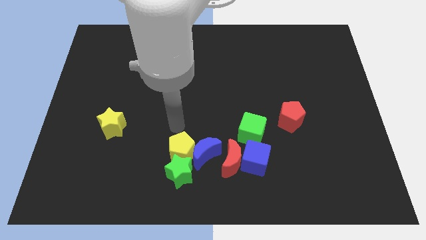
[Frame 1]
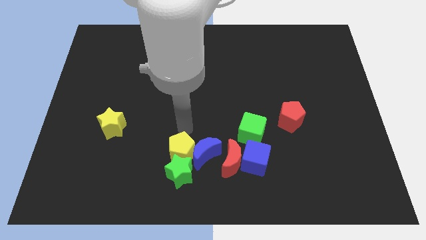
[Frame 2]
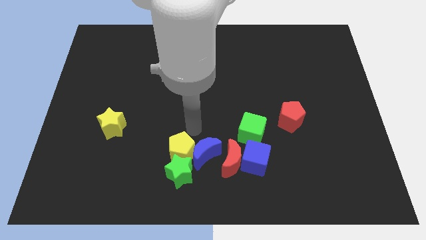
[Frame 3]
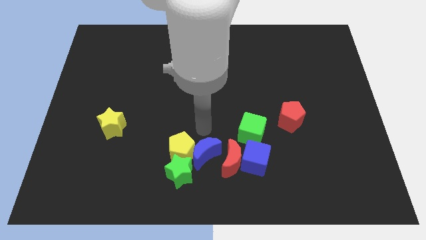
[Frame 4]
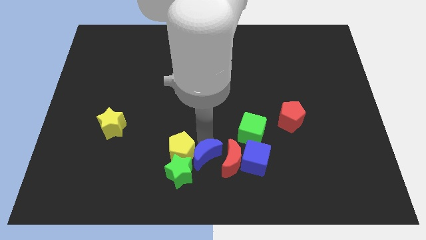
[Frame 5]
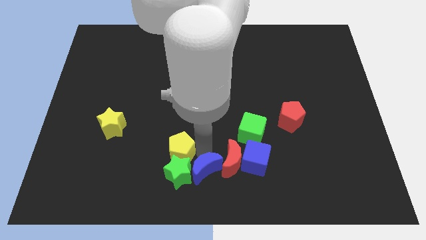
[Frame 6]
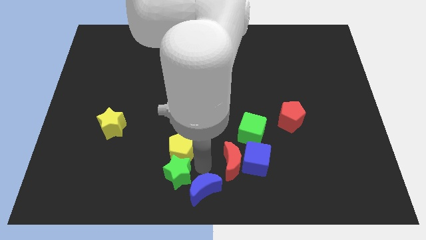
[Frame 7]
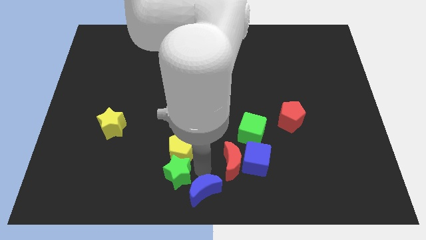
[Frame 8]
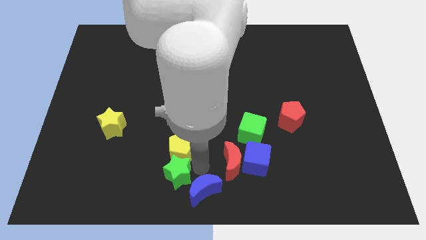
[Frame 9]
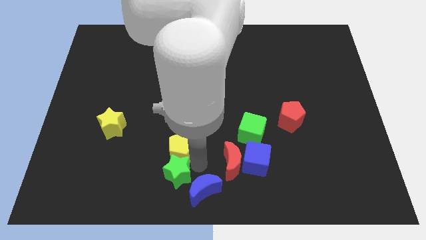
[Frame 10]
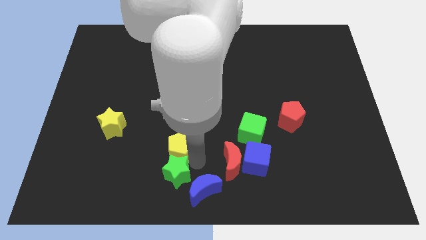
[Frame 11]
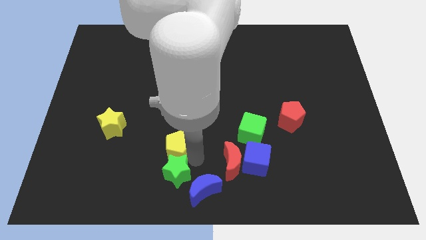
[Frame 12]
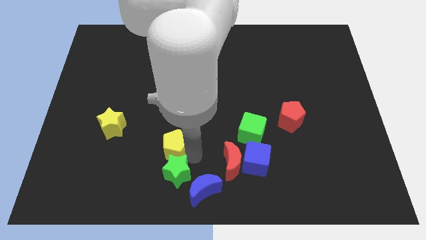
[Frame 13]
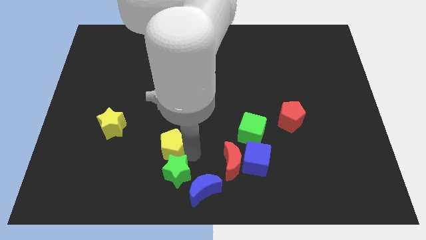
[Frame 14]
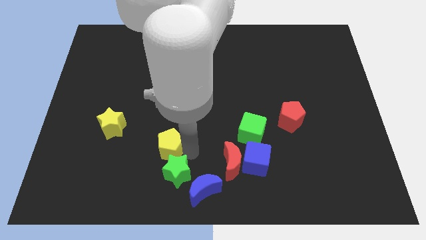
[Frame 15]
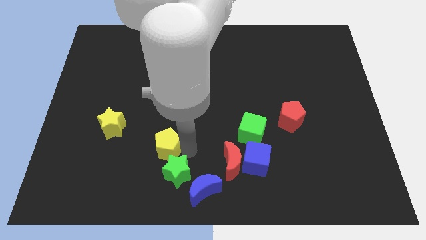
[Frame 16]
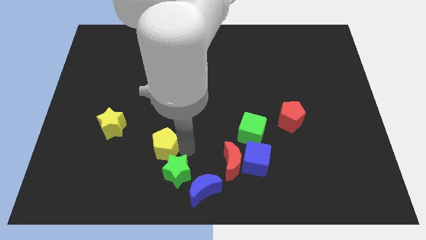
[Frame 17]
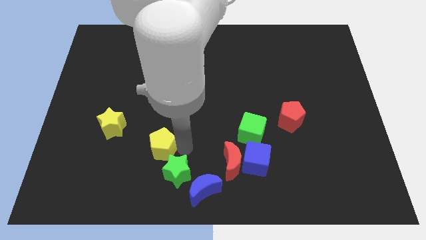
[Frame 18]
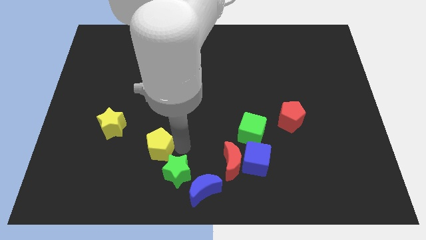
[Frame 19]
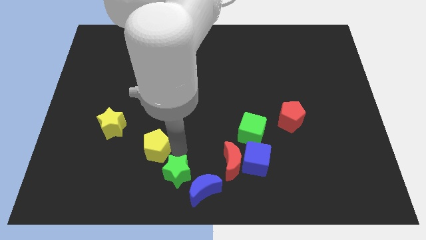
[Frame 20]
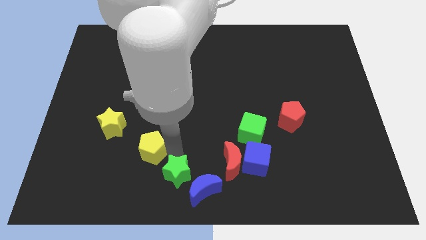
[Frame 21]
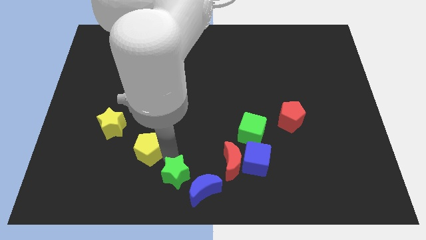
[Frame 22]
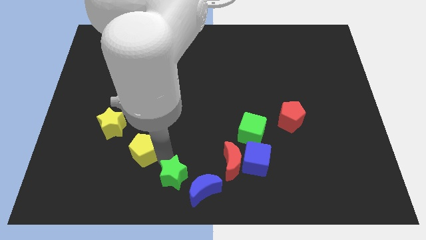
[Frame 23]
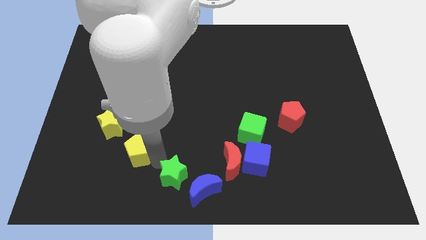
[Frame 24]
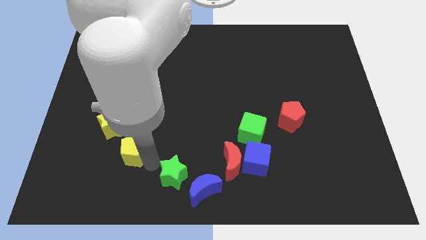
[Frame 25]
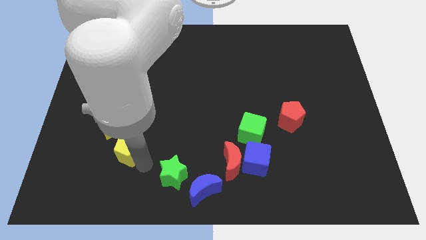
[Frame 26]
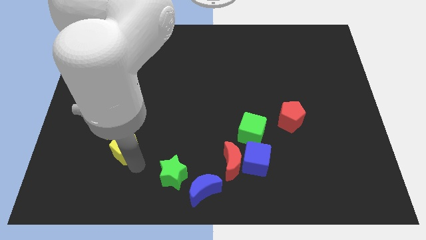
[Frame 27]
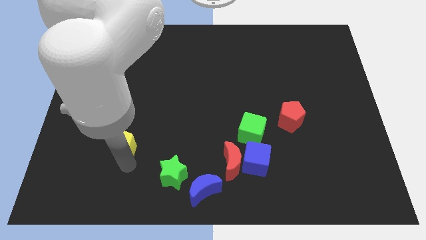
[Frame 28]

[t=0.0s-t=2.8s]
slide the yellow pentagon upwards and left slightly

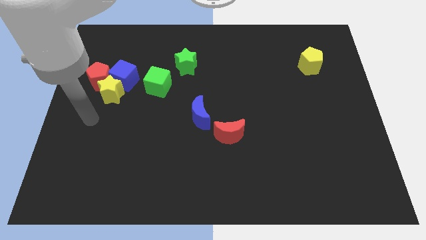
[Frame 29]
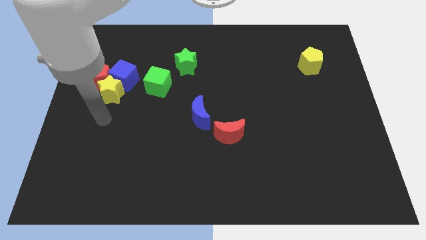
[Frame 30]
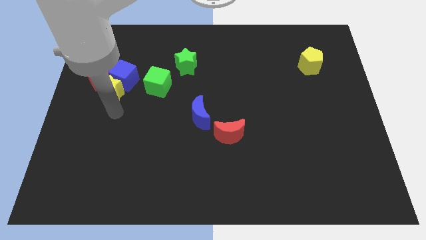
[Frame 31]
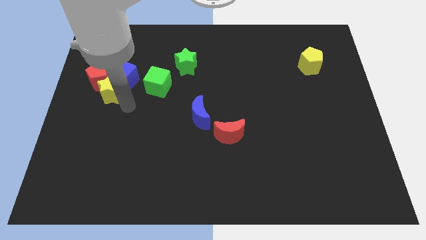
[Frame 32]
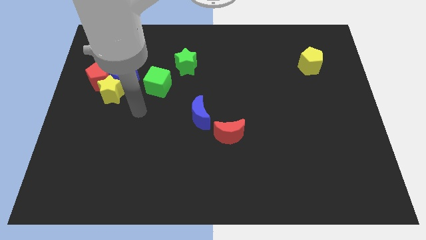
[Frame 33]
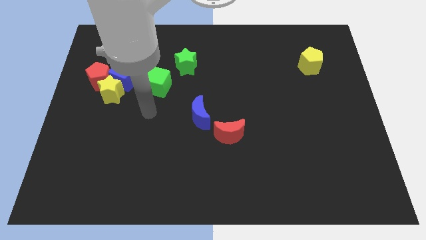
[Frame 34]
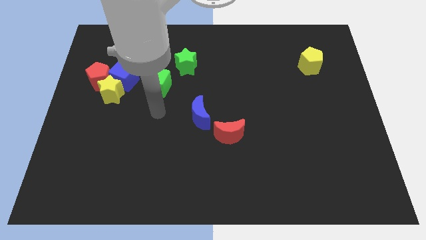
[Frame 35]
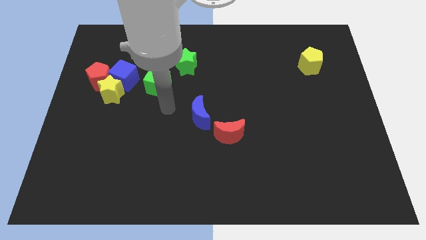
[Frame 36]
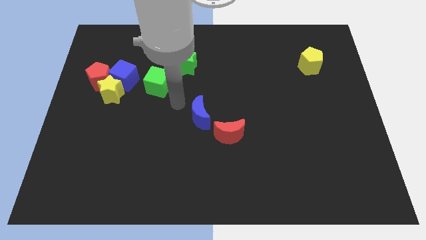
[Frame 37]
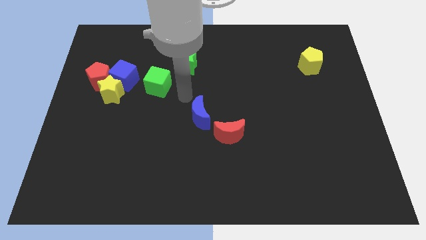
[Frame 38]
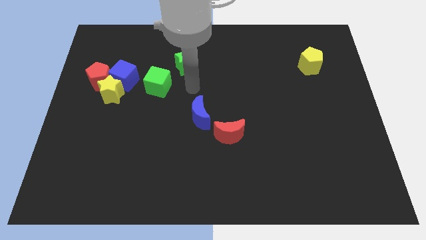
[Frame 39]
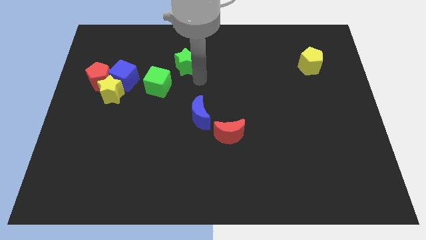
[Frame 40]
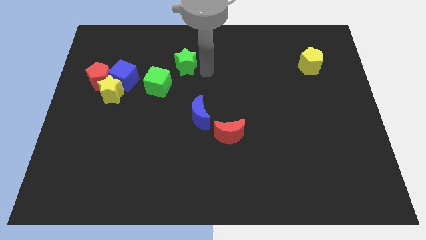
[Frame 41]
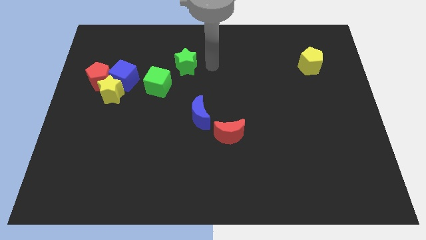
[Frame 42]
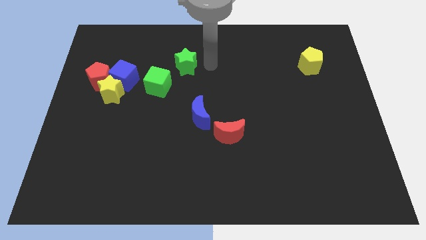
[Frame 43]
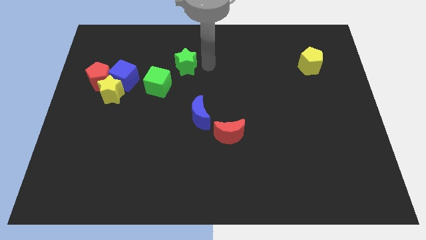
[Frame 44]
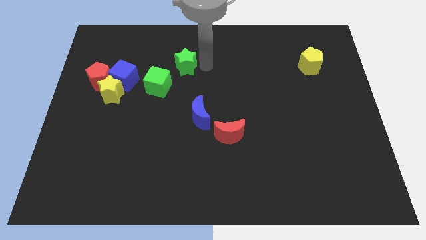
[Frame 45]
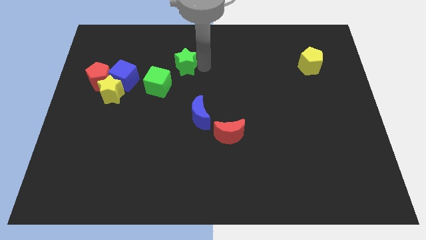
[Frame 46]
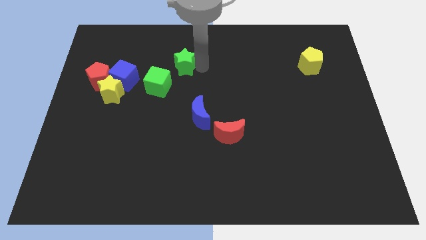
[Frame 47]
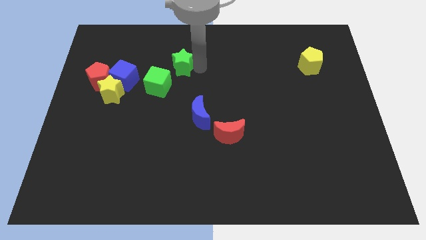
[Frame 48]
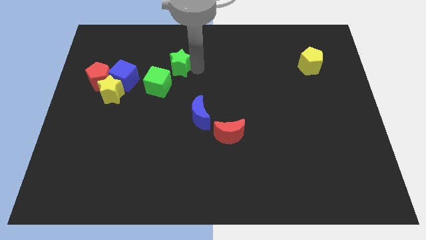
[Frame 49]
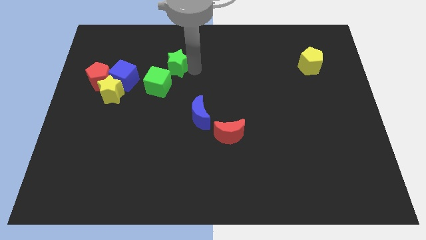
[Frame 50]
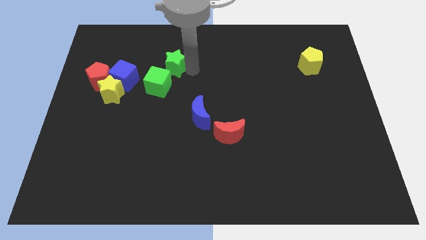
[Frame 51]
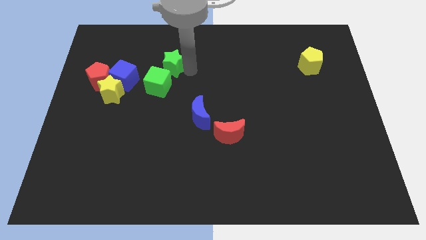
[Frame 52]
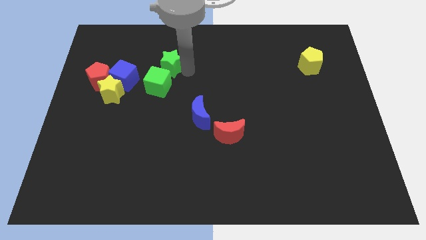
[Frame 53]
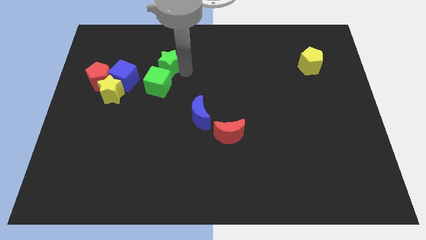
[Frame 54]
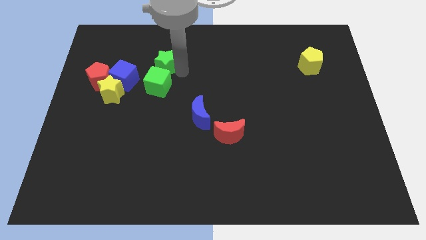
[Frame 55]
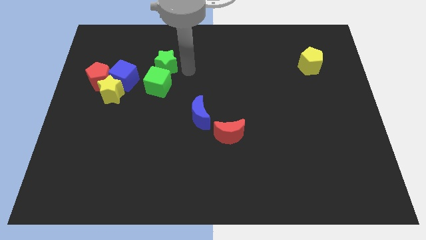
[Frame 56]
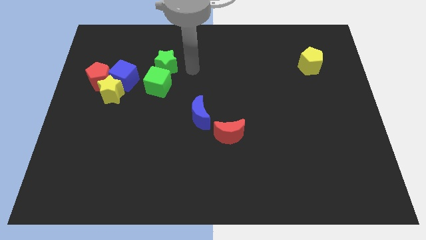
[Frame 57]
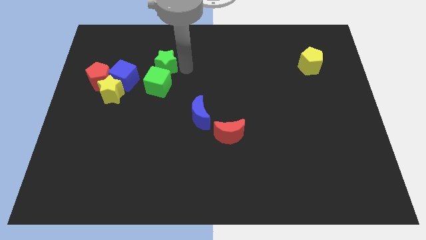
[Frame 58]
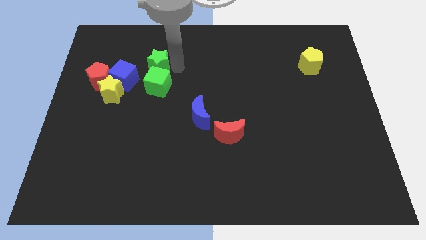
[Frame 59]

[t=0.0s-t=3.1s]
move the green star left a little bit

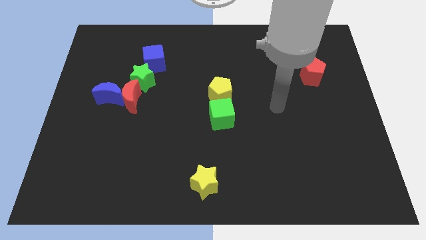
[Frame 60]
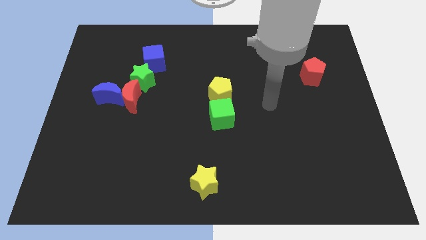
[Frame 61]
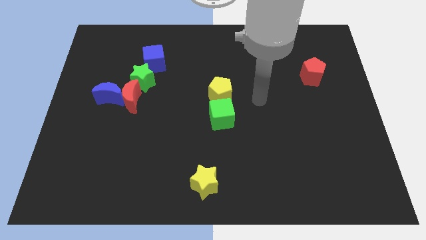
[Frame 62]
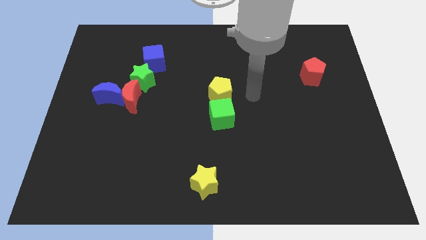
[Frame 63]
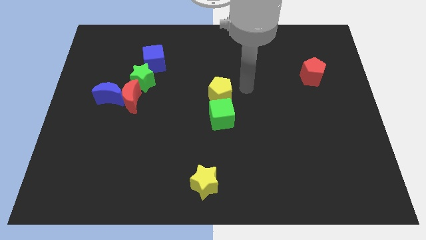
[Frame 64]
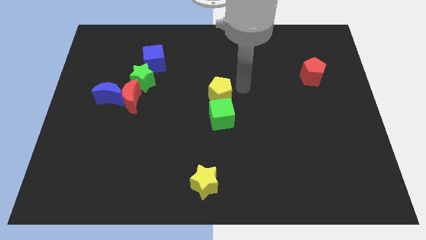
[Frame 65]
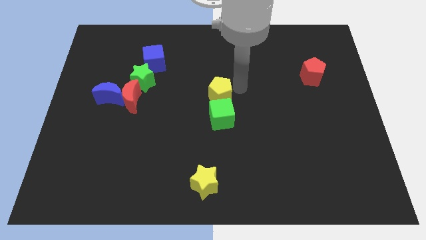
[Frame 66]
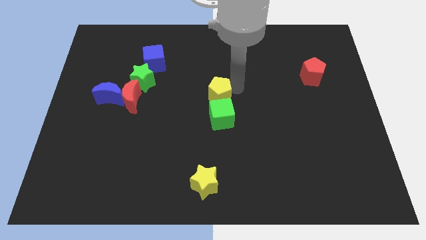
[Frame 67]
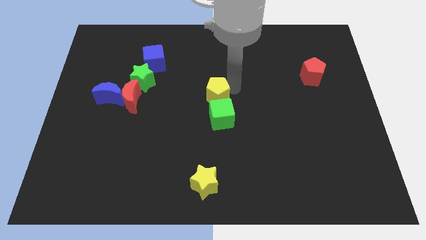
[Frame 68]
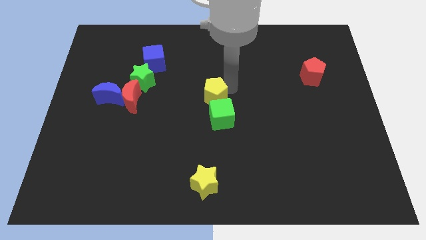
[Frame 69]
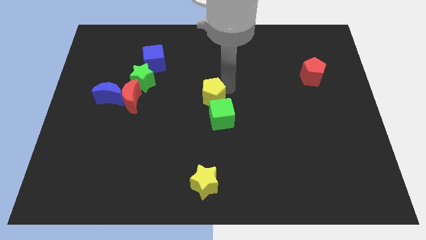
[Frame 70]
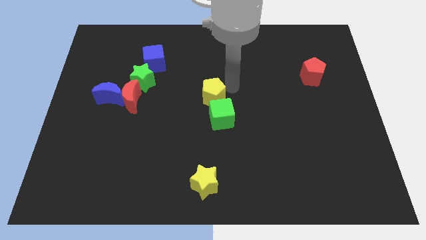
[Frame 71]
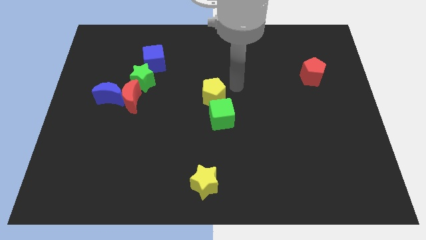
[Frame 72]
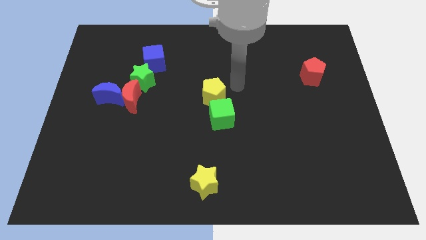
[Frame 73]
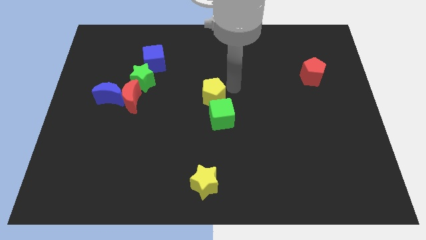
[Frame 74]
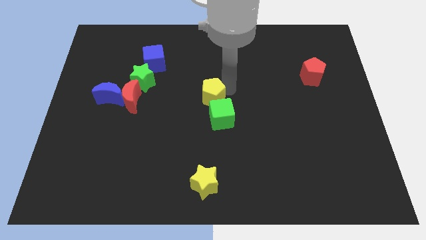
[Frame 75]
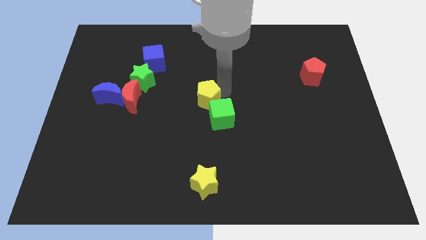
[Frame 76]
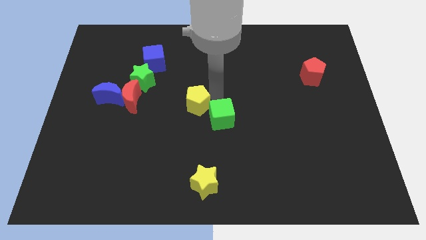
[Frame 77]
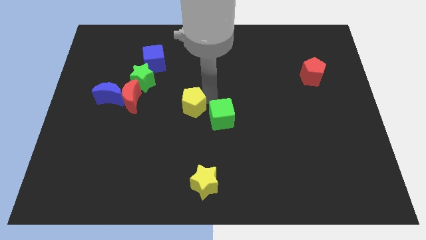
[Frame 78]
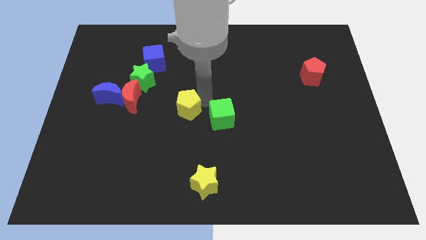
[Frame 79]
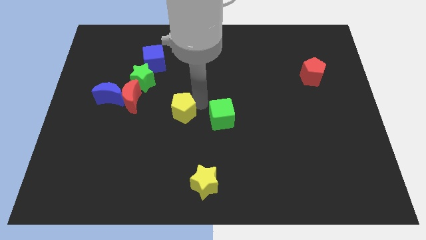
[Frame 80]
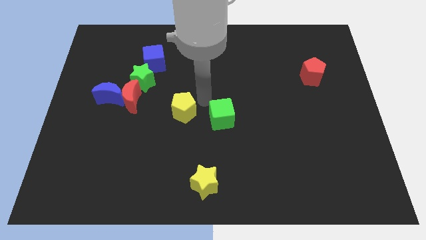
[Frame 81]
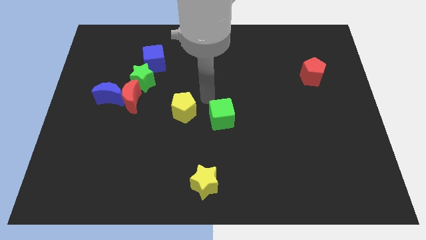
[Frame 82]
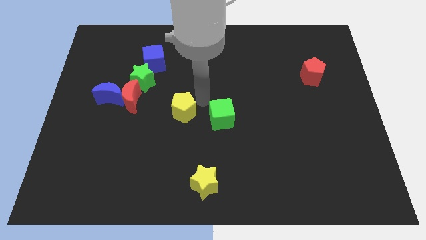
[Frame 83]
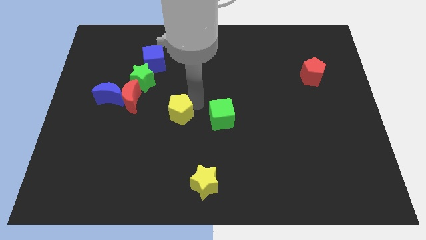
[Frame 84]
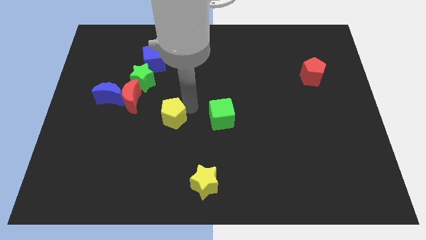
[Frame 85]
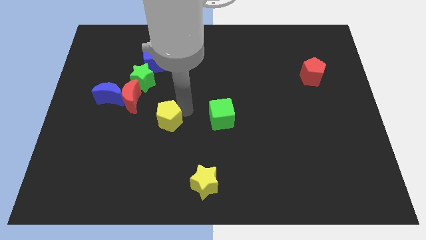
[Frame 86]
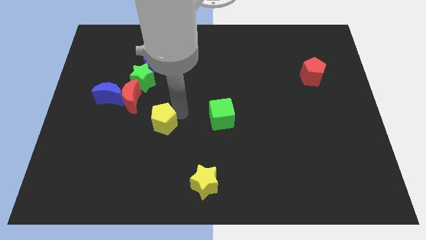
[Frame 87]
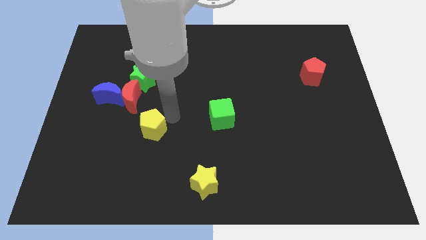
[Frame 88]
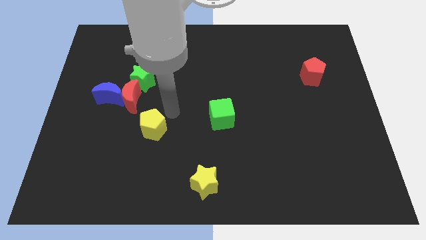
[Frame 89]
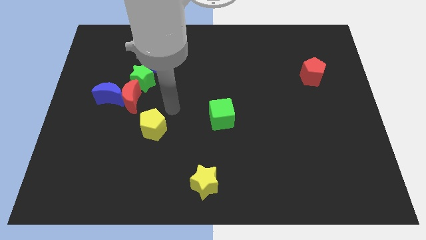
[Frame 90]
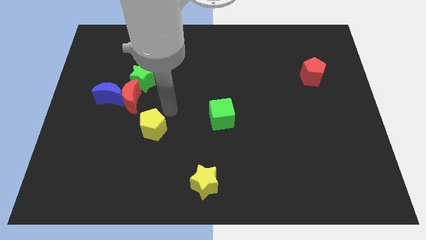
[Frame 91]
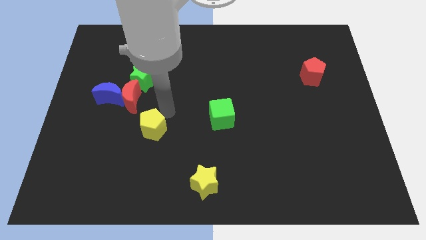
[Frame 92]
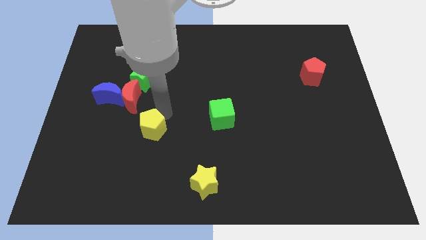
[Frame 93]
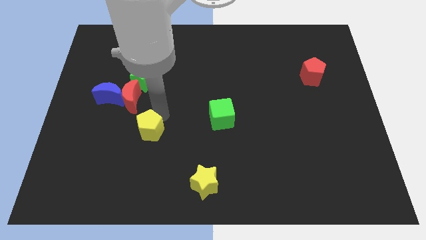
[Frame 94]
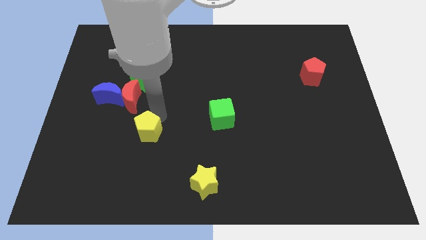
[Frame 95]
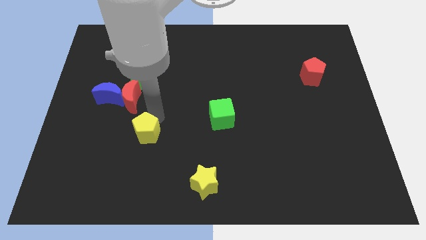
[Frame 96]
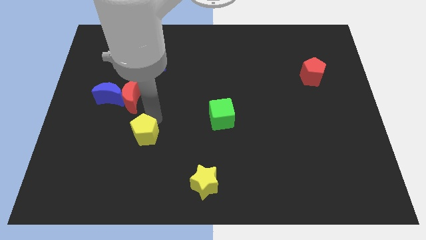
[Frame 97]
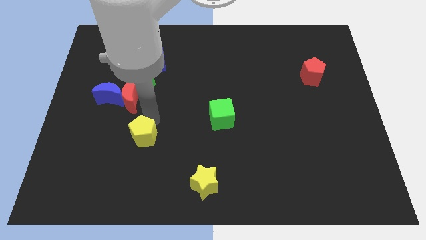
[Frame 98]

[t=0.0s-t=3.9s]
slide the yellow pentagon downwards and to the left diagonally
